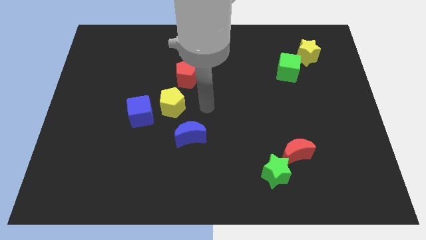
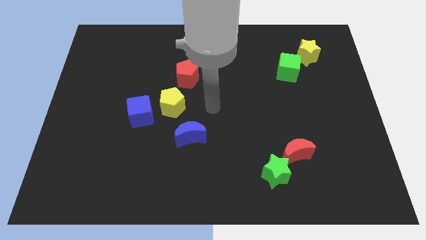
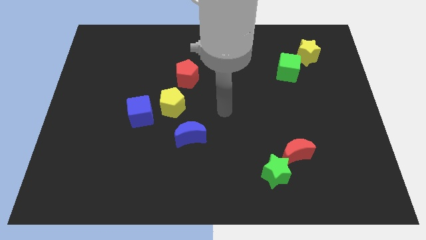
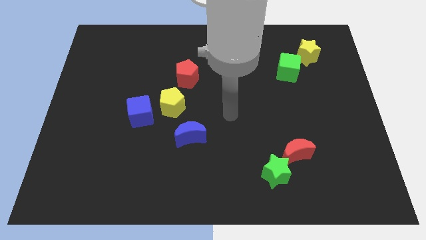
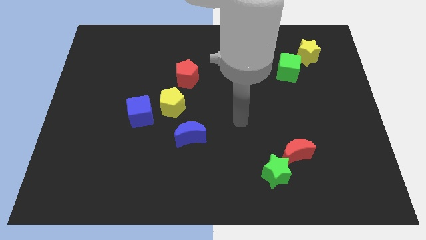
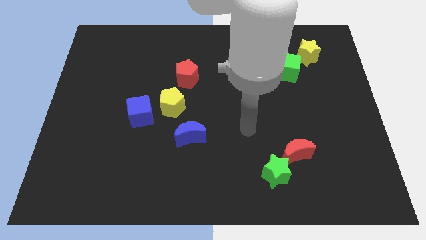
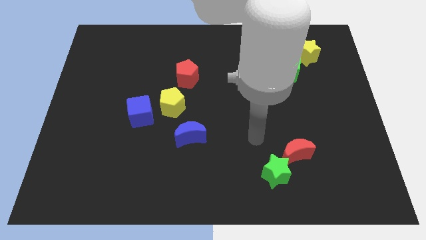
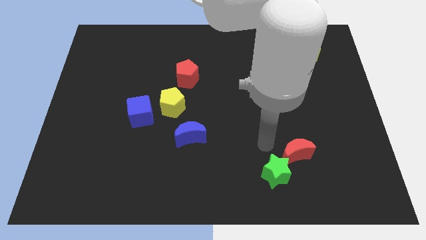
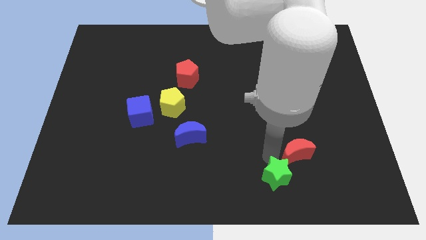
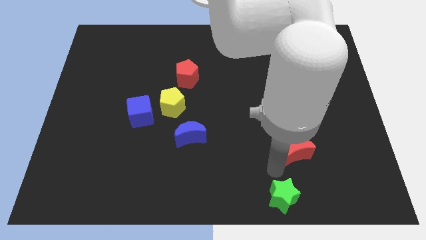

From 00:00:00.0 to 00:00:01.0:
pull the red moon apart from the green star

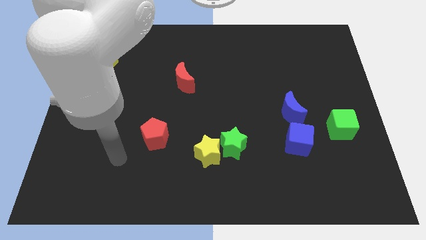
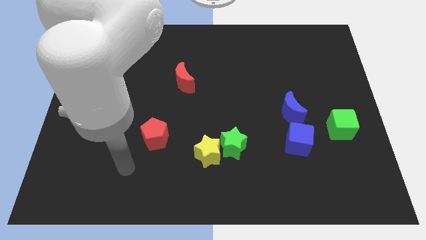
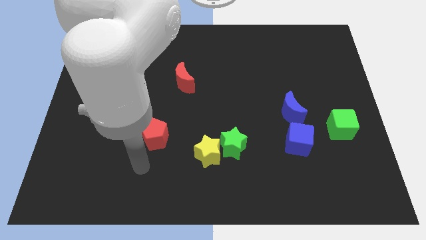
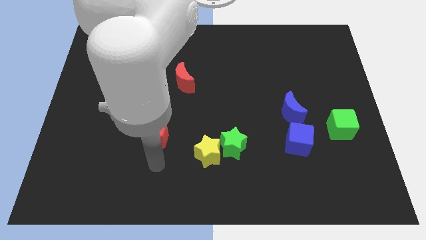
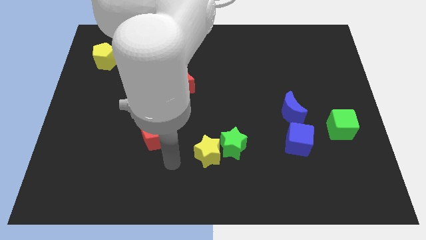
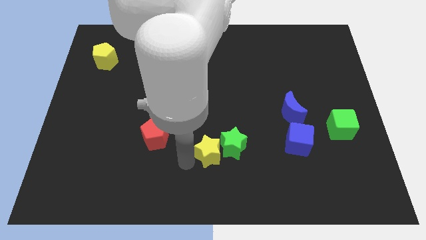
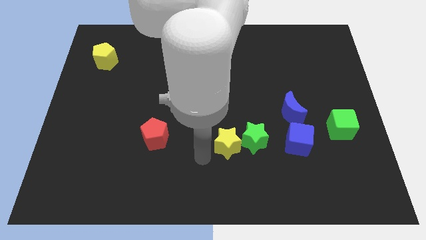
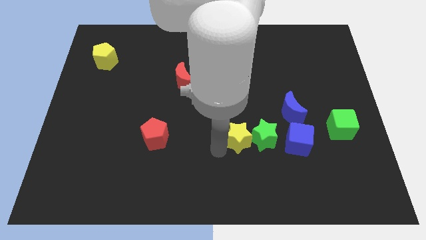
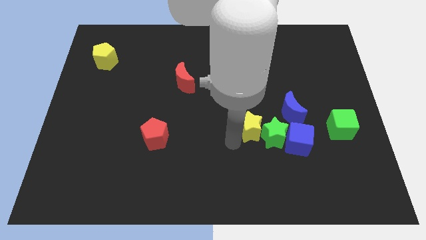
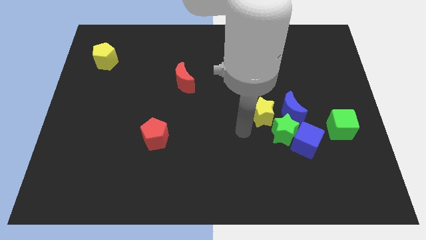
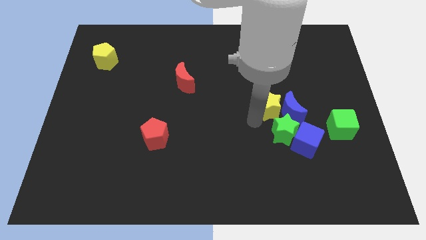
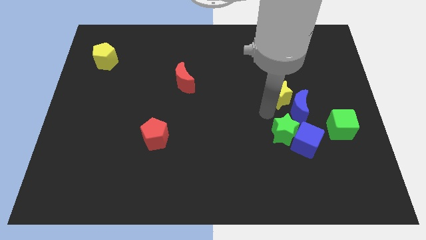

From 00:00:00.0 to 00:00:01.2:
move the green star away from the yellow star

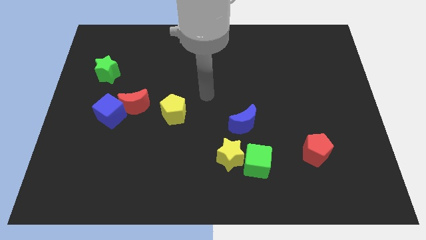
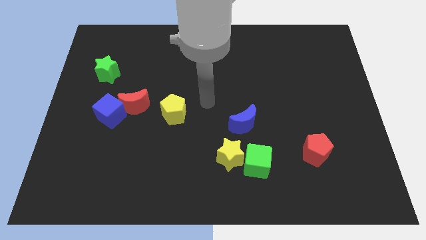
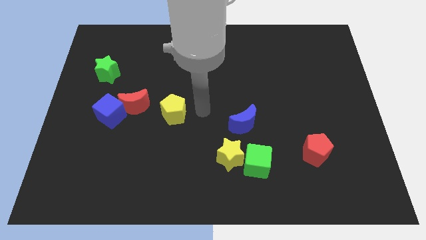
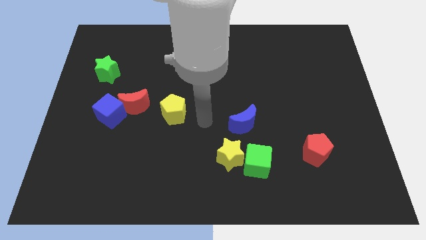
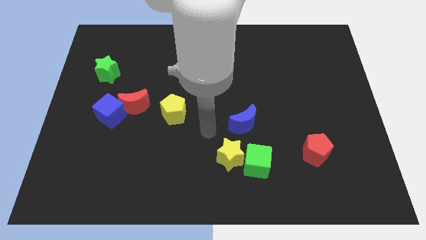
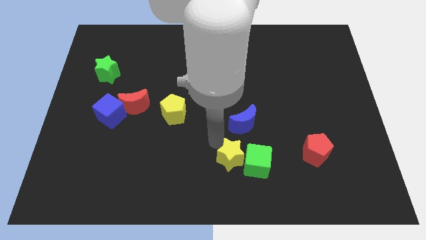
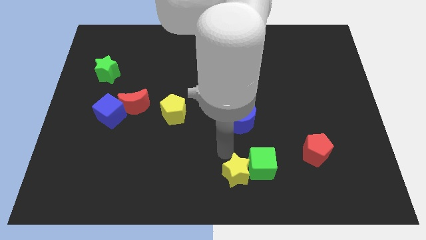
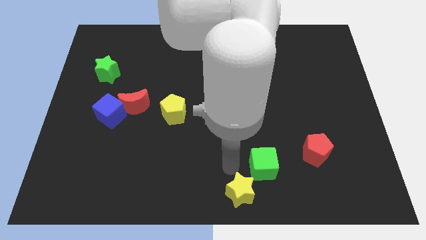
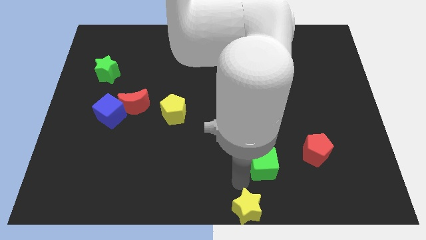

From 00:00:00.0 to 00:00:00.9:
move the green cube away from the yellow star

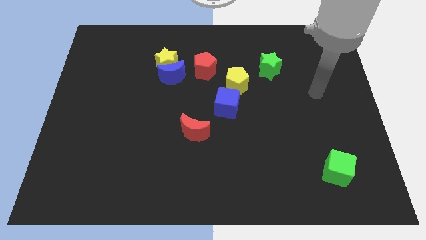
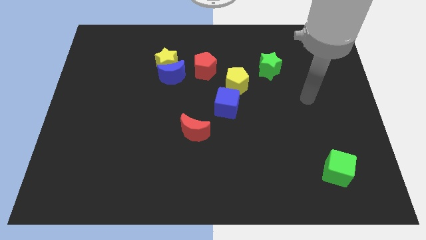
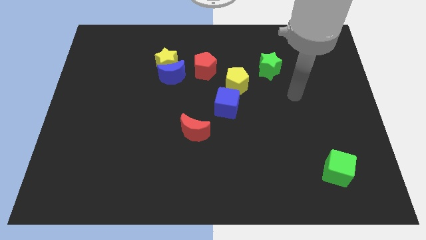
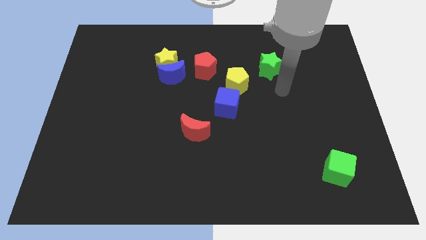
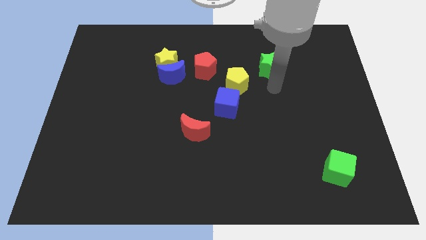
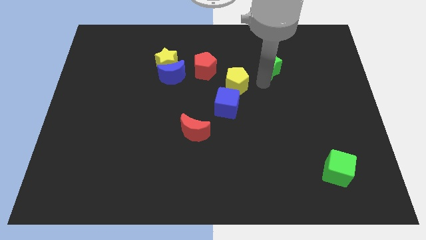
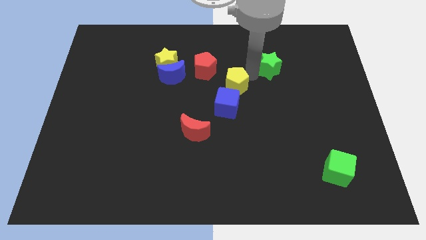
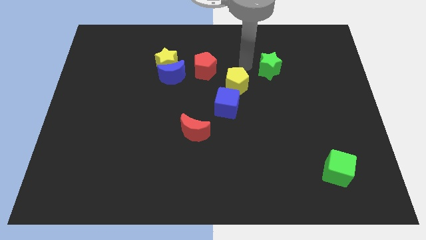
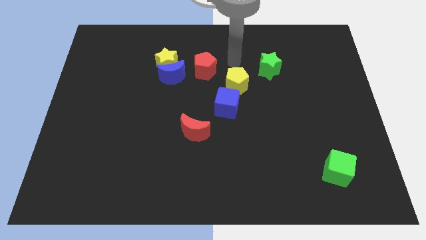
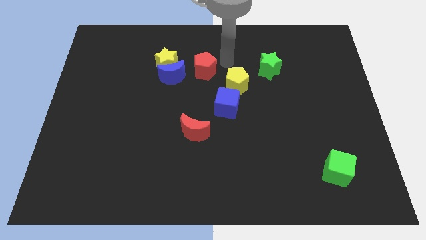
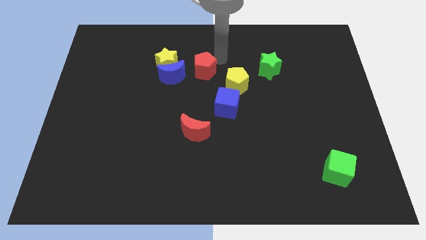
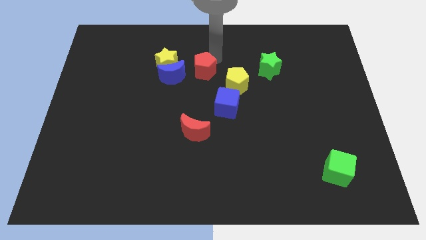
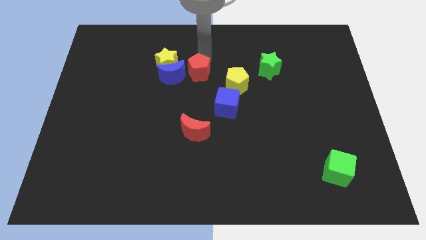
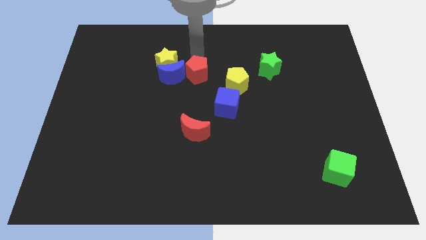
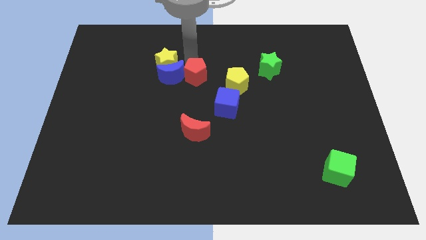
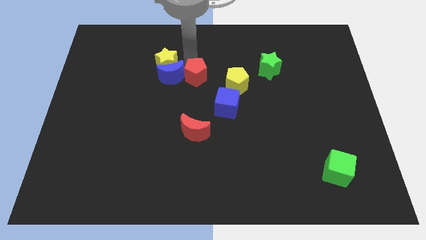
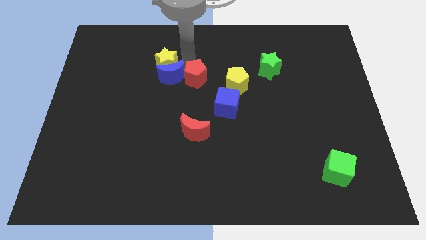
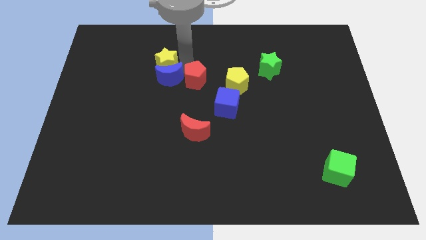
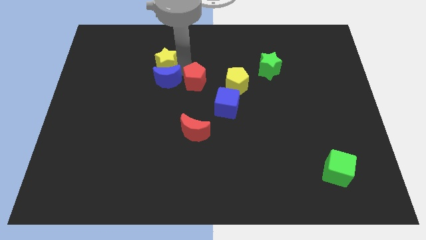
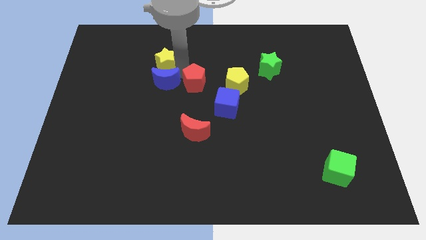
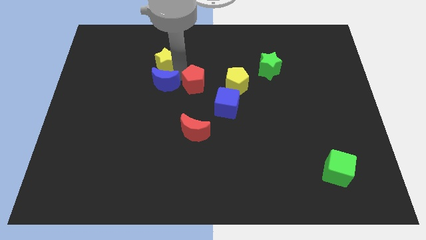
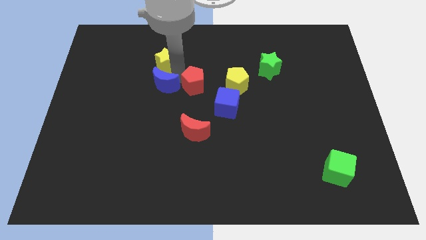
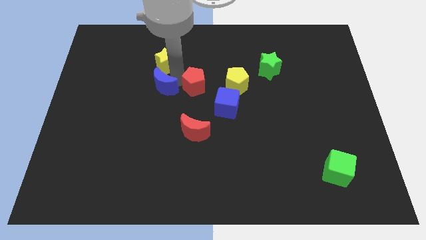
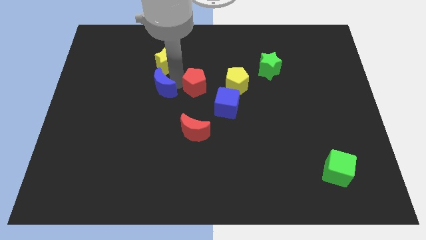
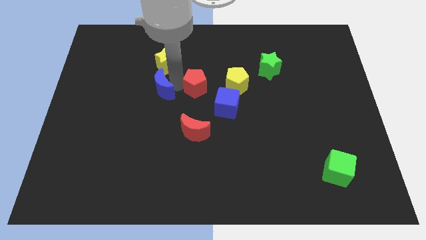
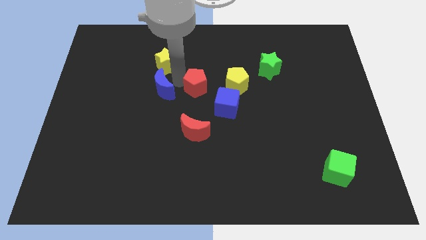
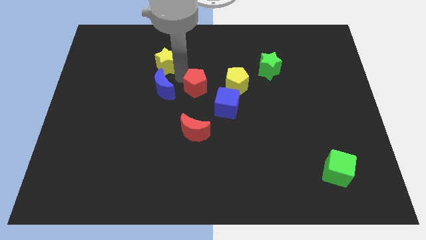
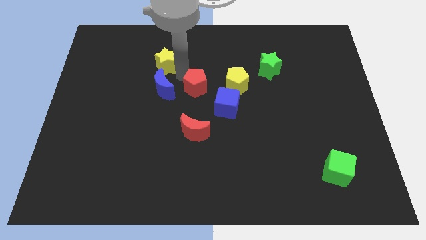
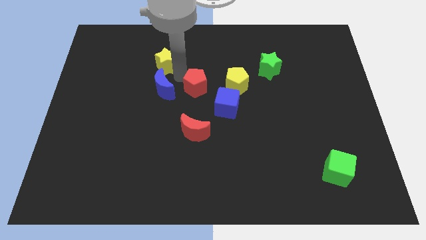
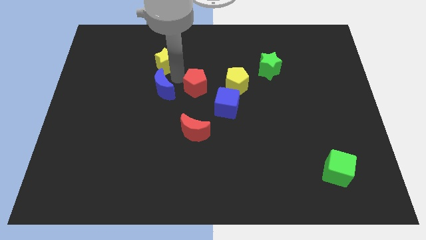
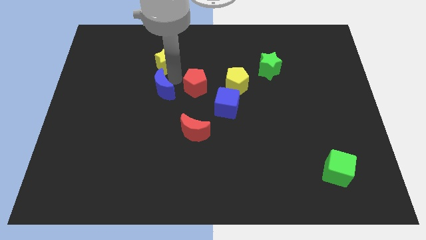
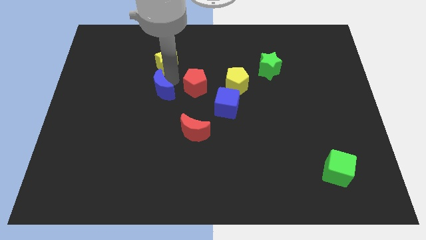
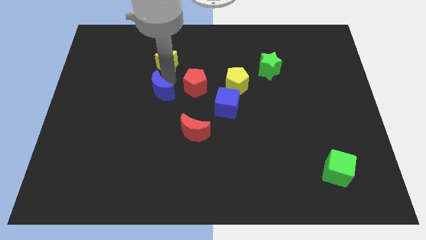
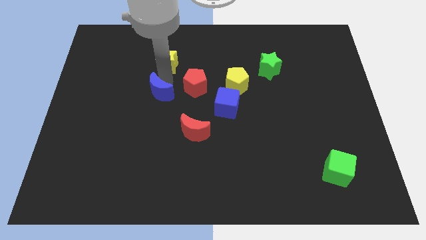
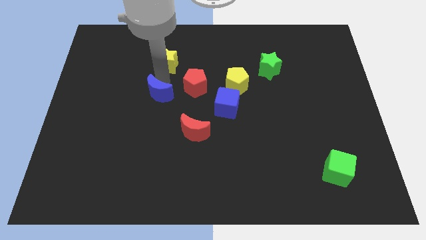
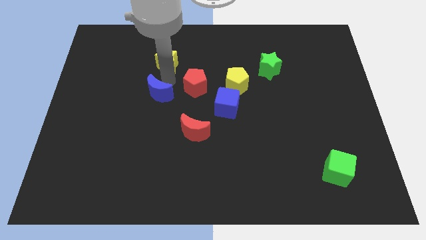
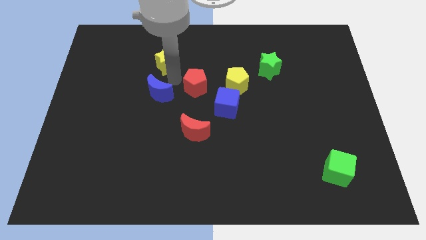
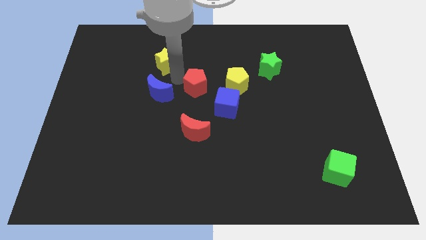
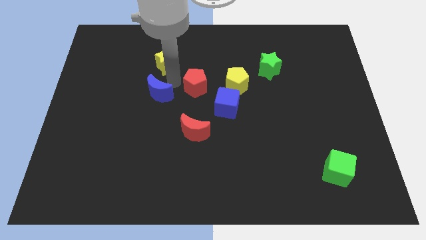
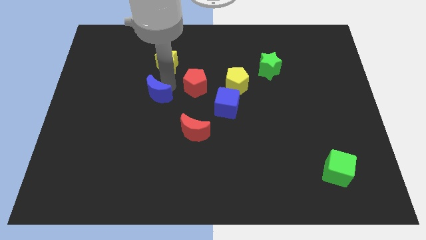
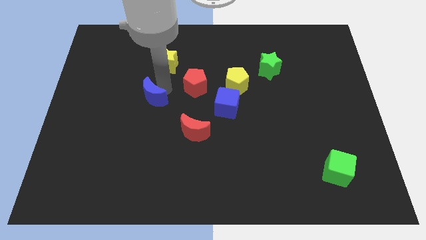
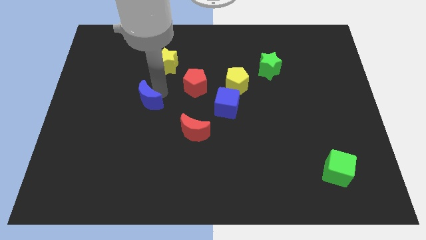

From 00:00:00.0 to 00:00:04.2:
move the blue moon away from the yellow star and red pentagon

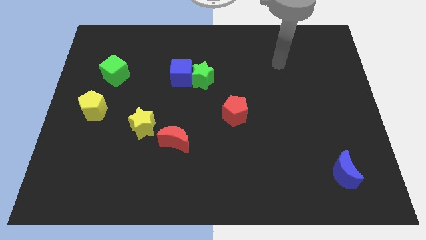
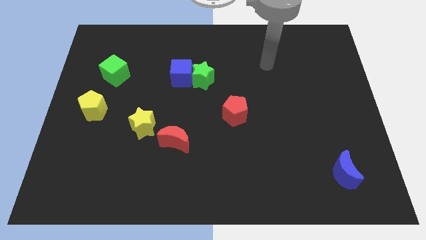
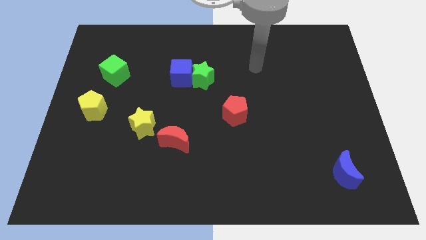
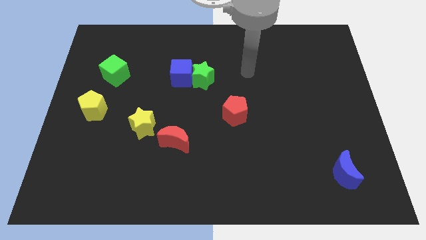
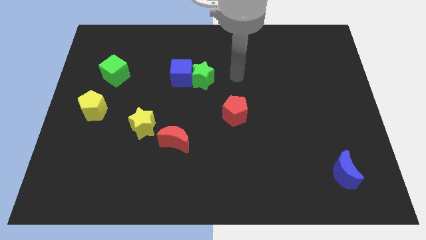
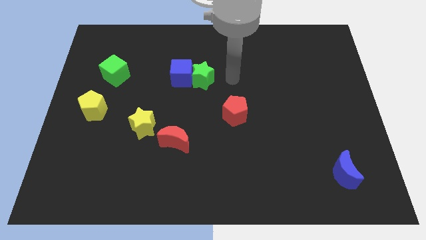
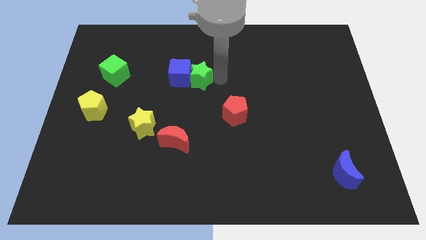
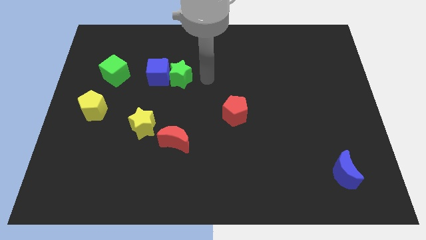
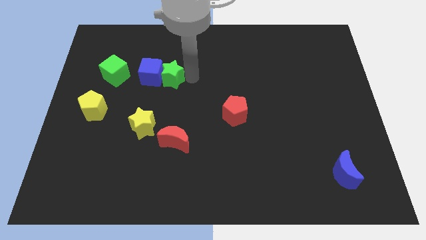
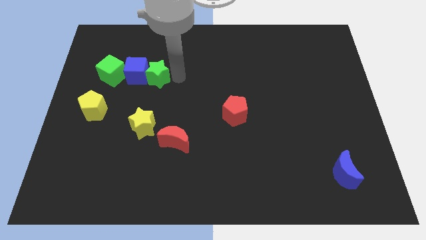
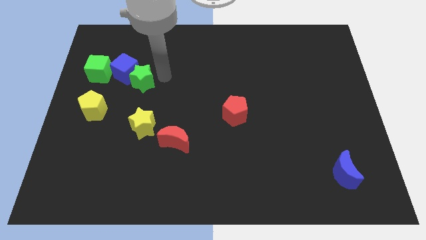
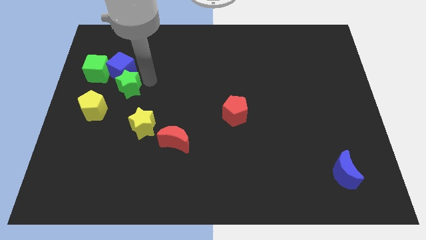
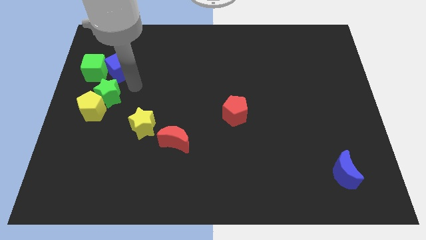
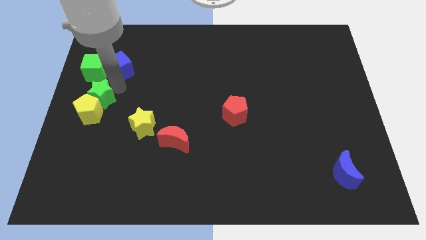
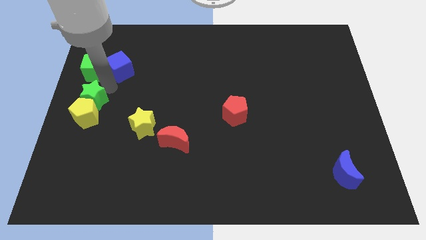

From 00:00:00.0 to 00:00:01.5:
pull the blue cube apart from the green star

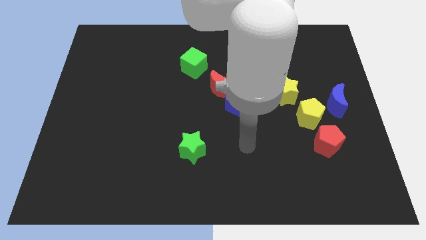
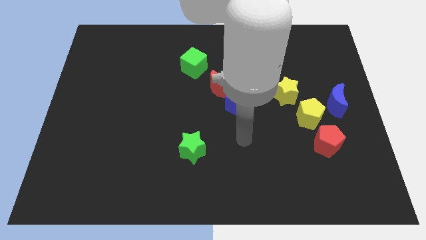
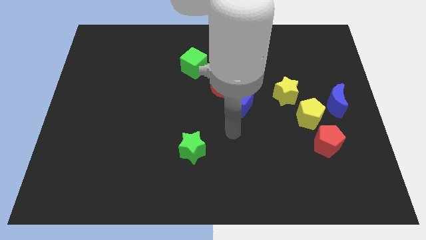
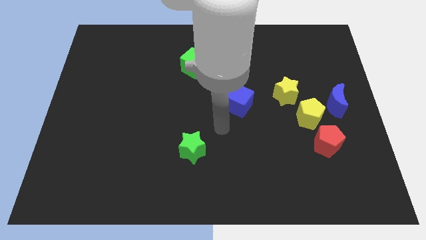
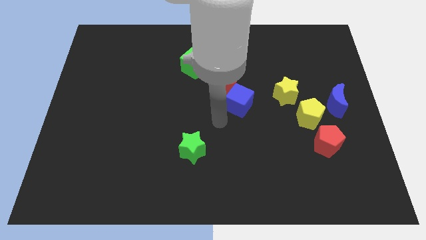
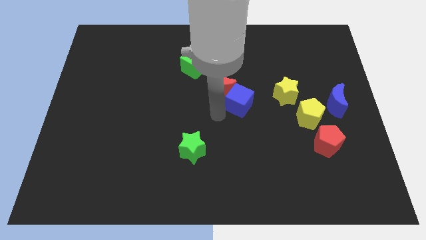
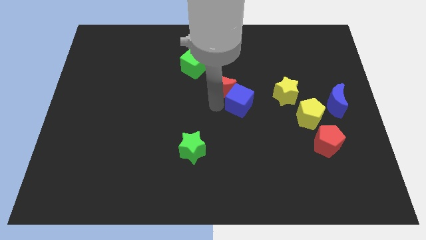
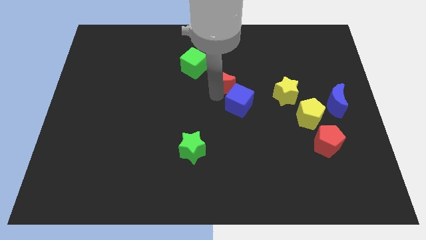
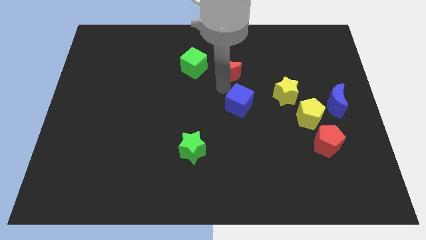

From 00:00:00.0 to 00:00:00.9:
separate the blue cube from the red moon
